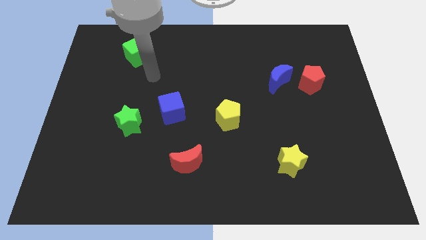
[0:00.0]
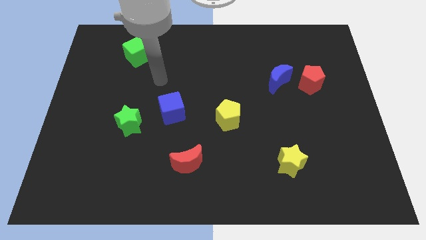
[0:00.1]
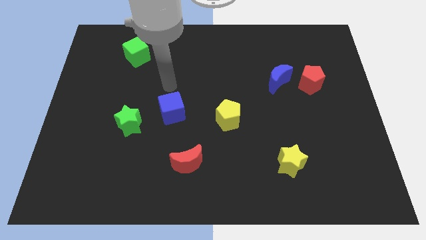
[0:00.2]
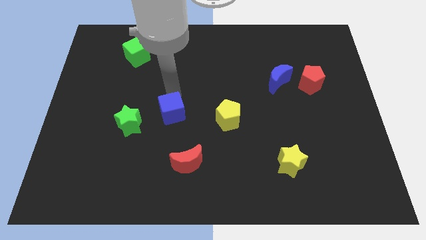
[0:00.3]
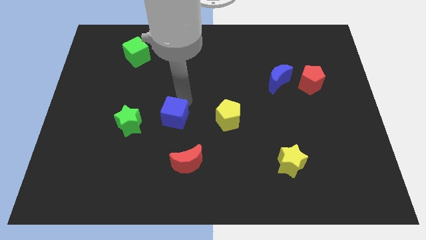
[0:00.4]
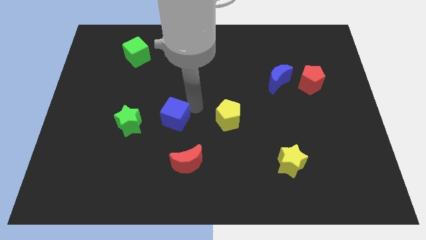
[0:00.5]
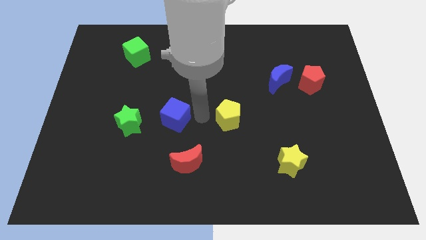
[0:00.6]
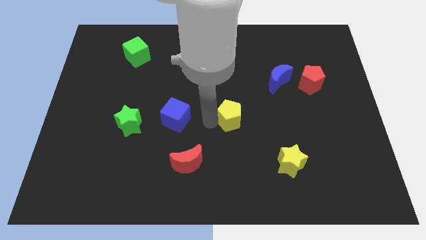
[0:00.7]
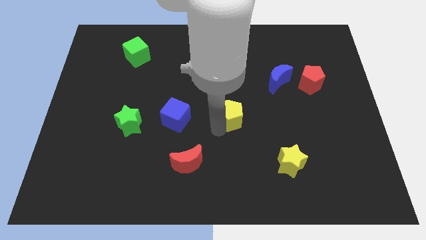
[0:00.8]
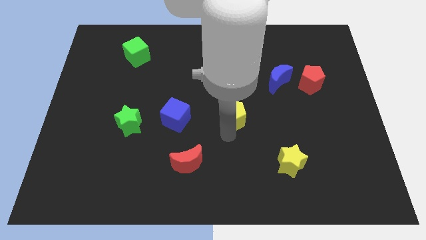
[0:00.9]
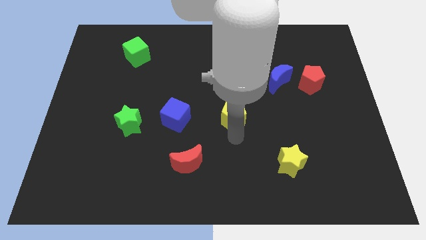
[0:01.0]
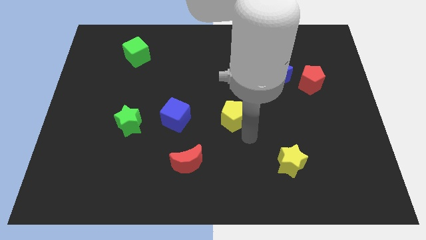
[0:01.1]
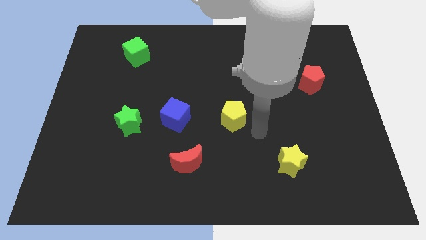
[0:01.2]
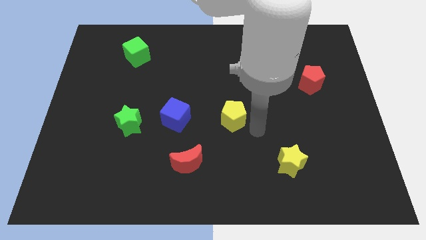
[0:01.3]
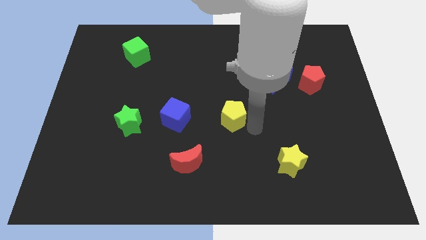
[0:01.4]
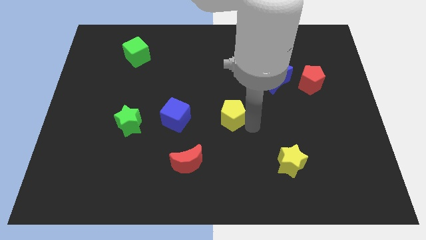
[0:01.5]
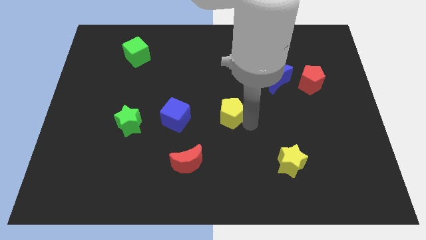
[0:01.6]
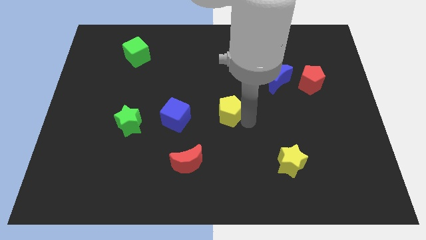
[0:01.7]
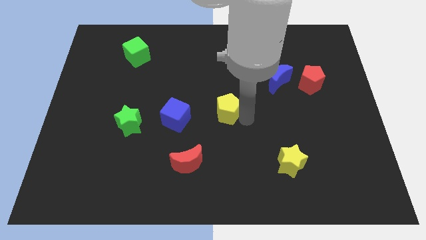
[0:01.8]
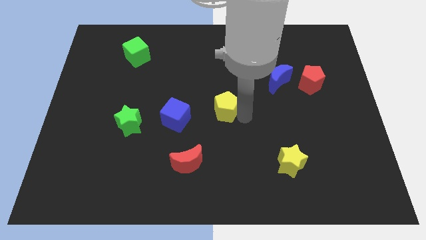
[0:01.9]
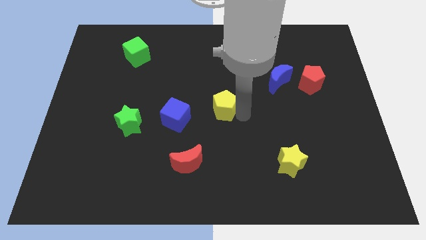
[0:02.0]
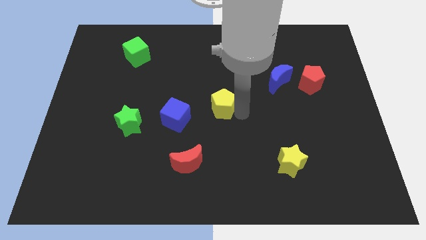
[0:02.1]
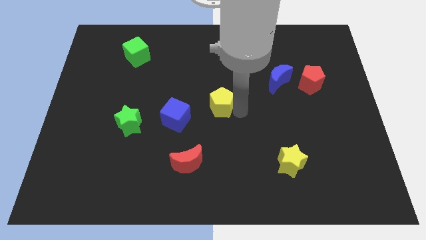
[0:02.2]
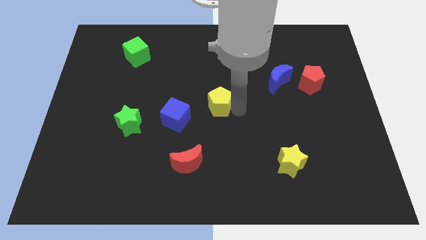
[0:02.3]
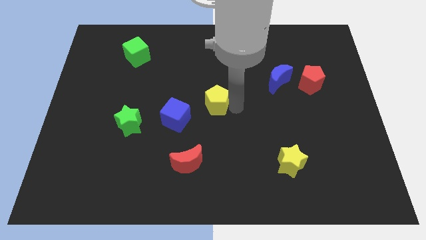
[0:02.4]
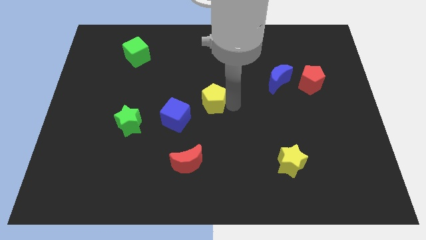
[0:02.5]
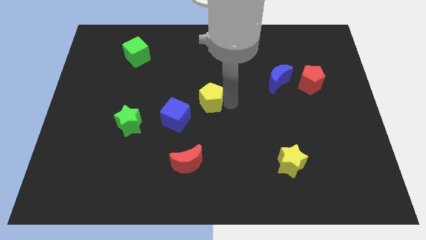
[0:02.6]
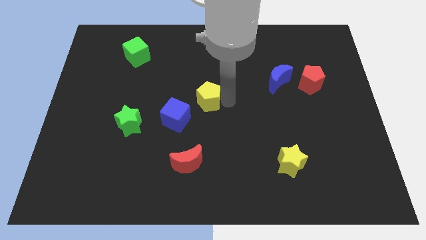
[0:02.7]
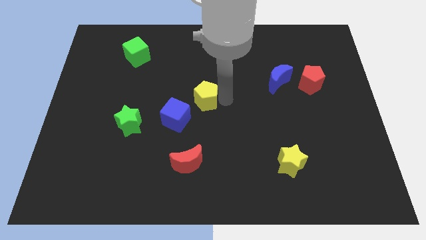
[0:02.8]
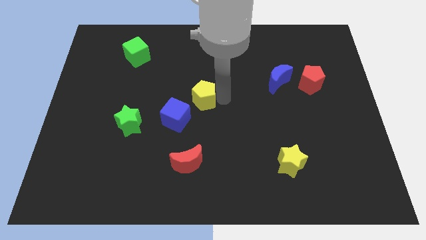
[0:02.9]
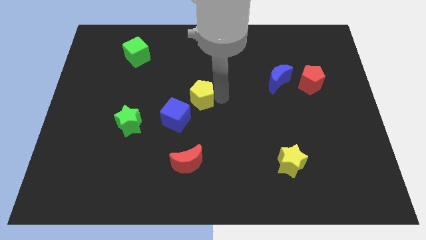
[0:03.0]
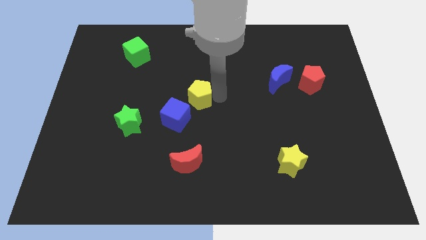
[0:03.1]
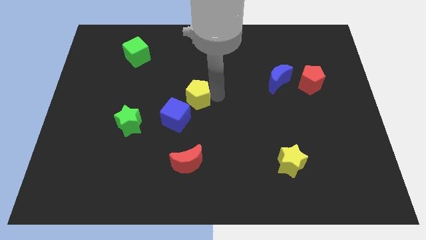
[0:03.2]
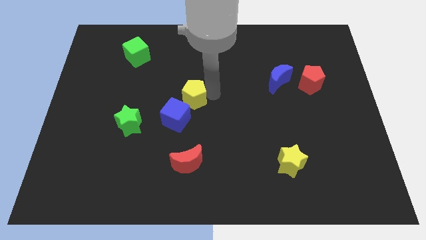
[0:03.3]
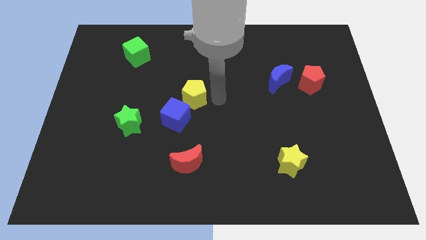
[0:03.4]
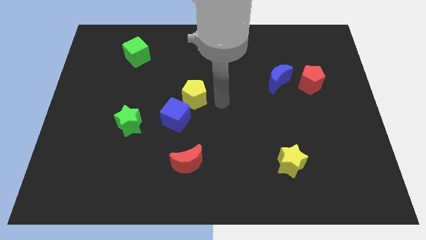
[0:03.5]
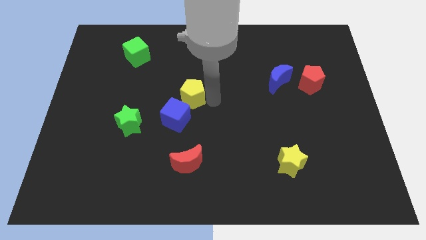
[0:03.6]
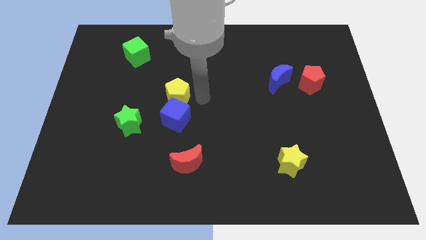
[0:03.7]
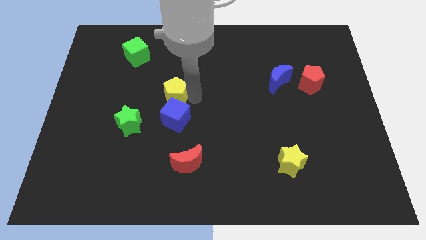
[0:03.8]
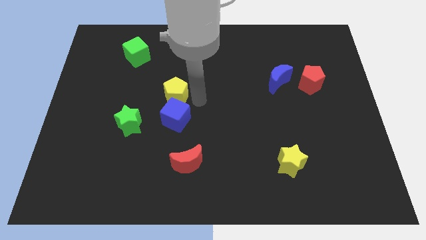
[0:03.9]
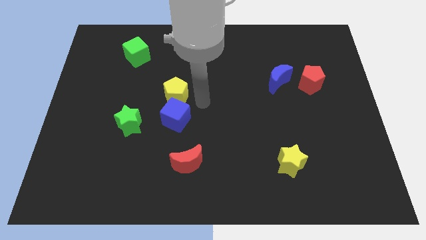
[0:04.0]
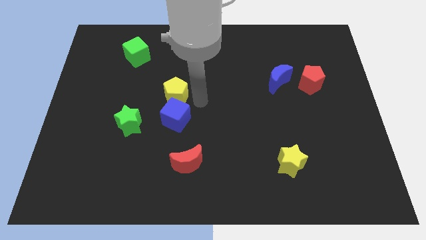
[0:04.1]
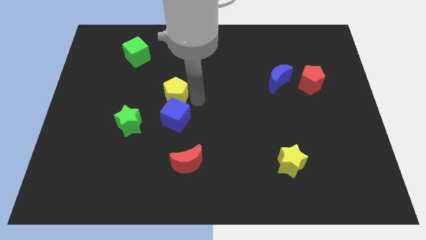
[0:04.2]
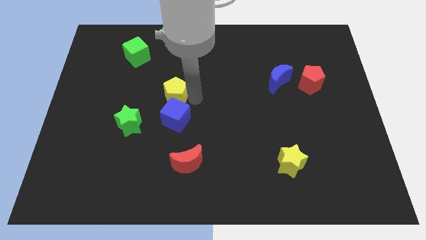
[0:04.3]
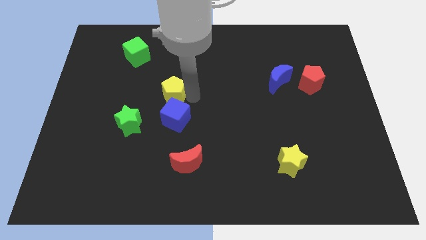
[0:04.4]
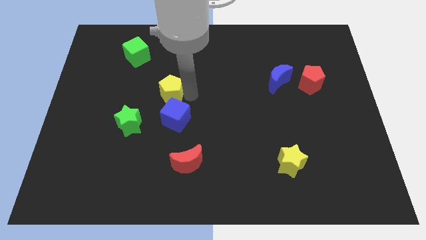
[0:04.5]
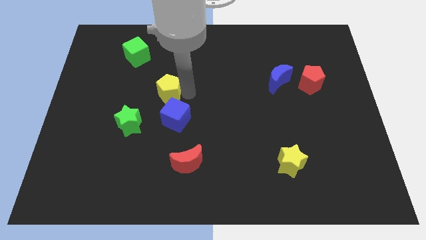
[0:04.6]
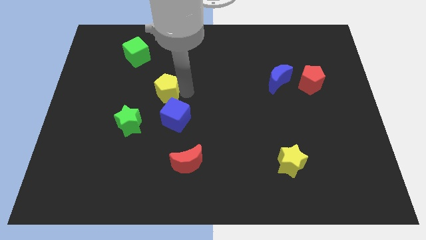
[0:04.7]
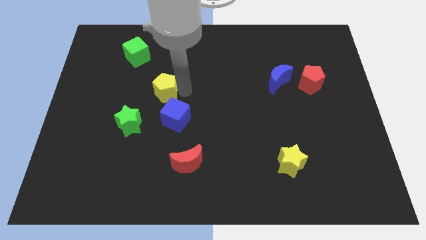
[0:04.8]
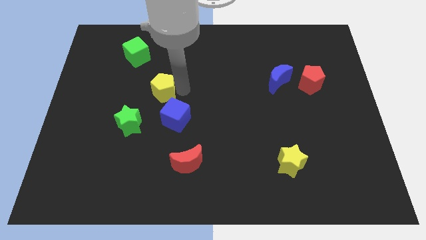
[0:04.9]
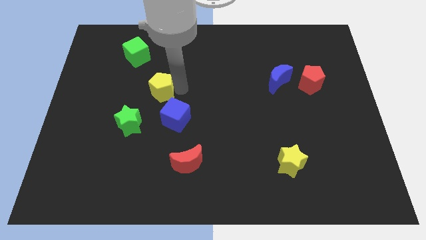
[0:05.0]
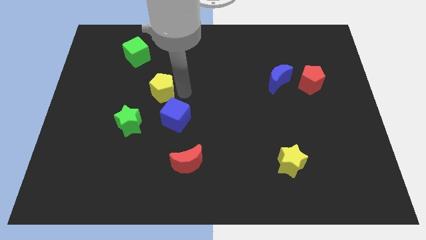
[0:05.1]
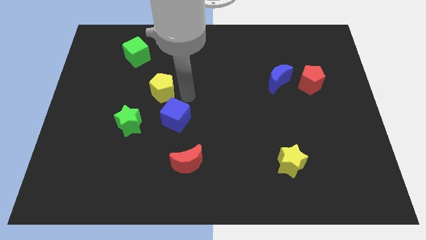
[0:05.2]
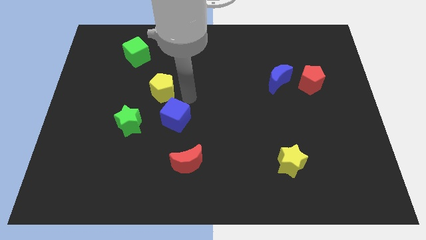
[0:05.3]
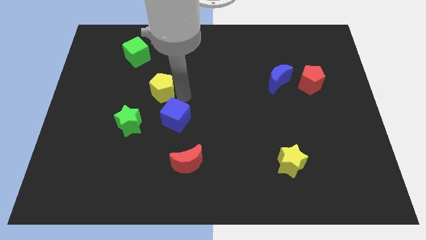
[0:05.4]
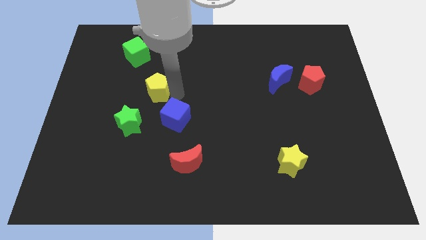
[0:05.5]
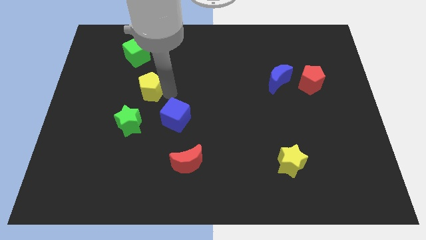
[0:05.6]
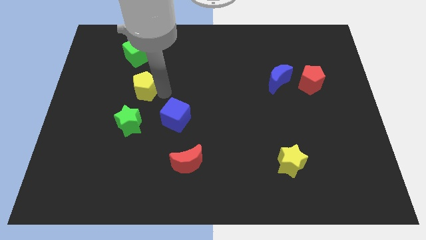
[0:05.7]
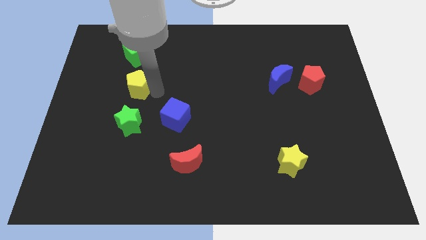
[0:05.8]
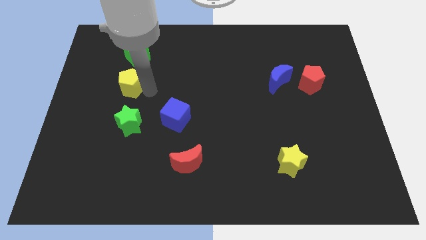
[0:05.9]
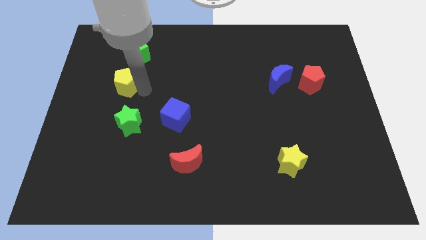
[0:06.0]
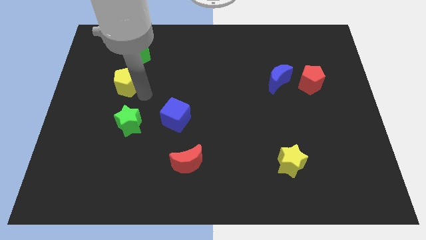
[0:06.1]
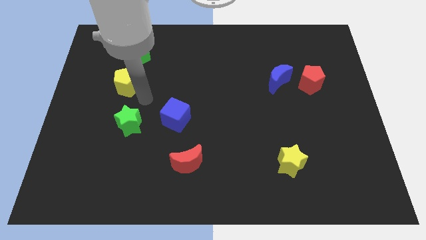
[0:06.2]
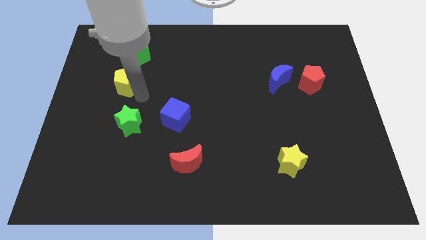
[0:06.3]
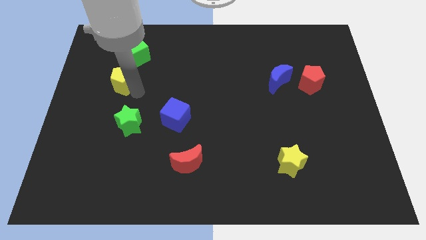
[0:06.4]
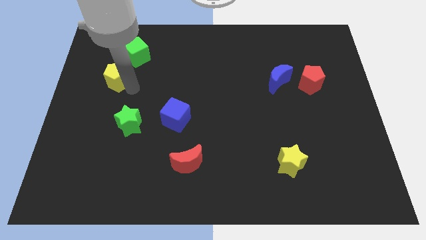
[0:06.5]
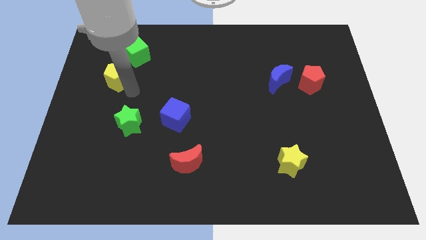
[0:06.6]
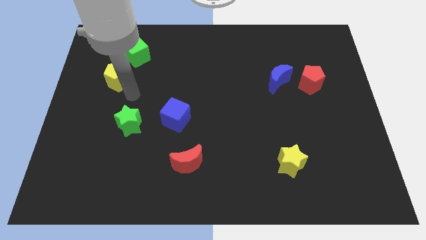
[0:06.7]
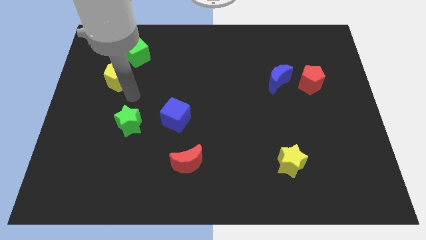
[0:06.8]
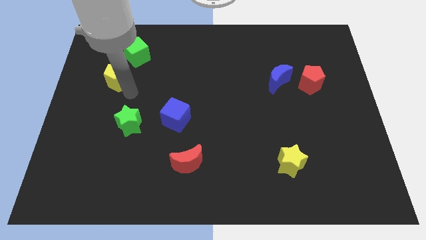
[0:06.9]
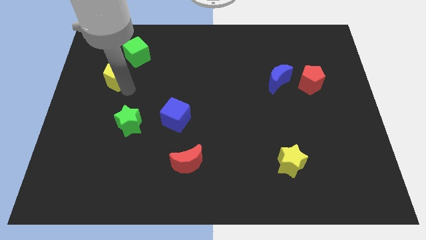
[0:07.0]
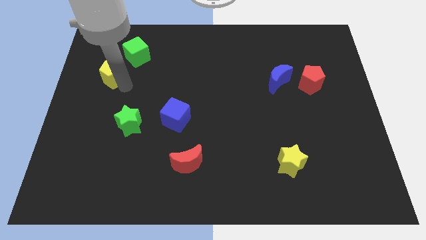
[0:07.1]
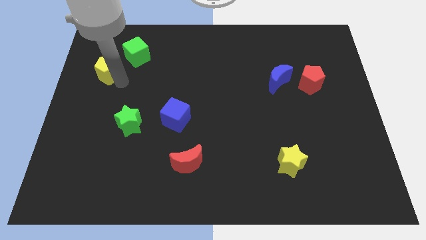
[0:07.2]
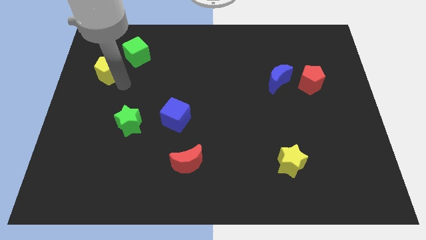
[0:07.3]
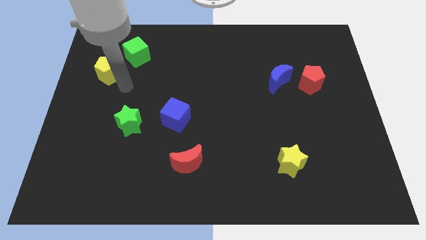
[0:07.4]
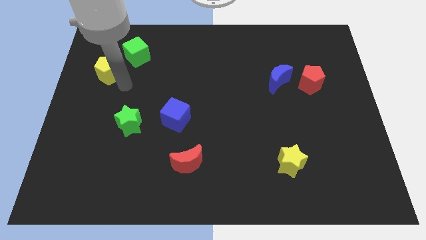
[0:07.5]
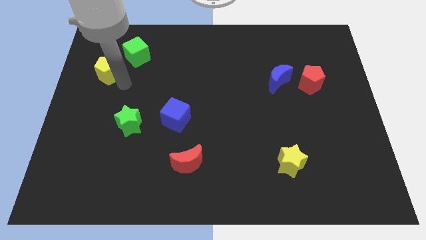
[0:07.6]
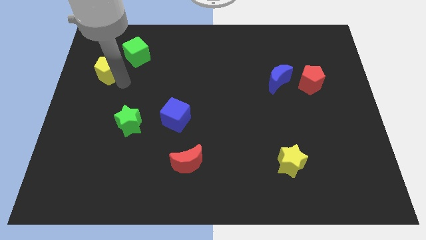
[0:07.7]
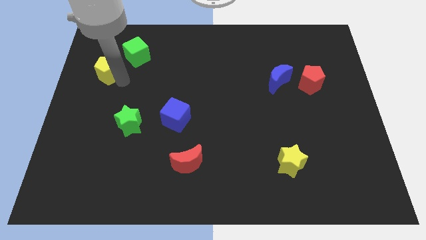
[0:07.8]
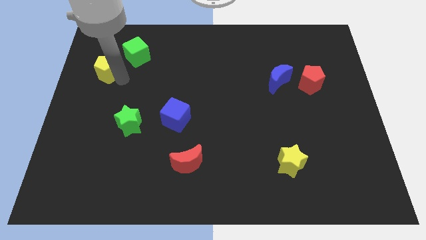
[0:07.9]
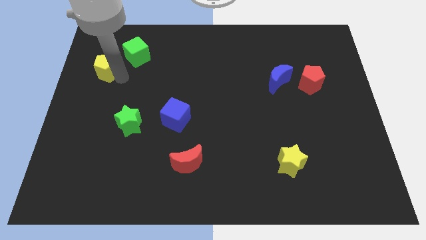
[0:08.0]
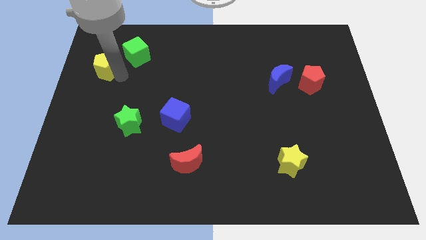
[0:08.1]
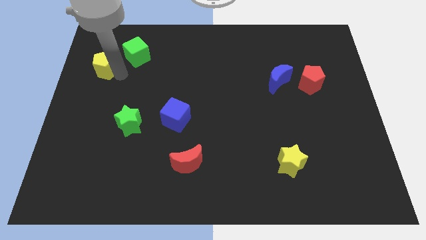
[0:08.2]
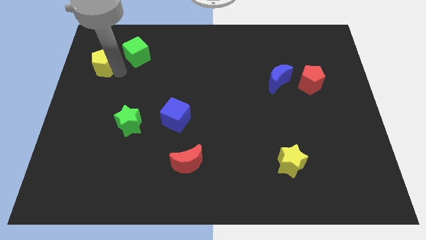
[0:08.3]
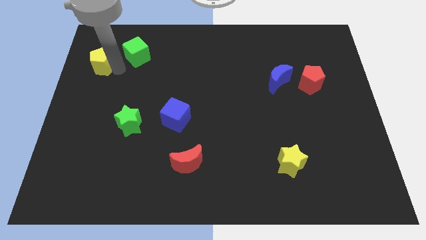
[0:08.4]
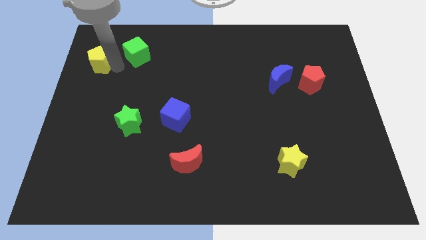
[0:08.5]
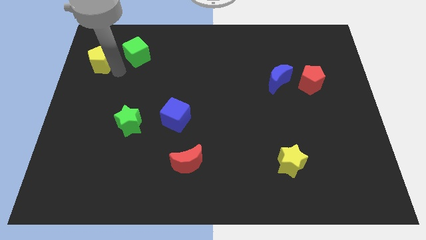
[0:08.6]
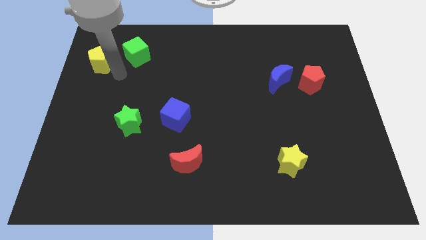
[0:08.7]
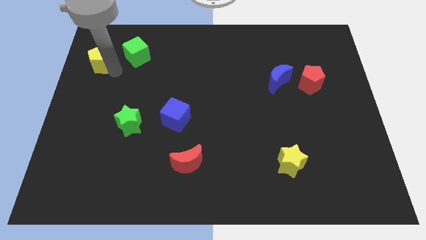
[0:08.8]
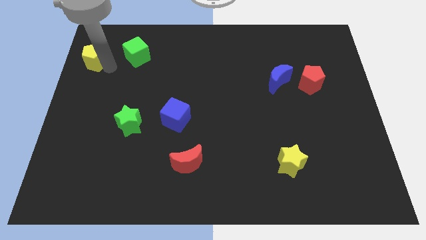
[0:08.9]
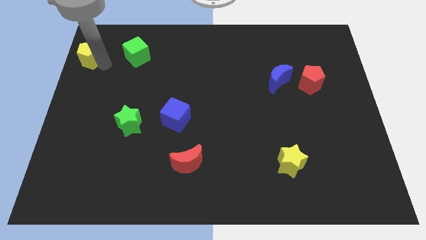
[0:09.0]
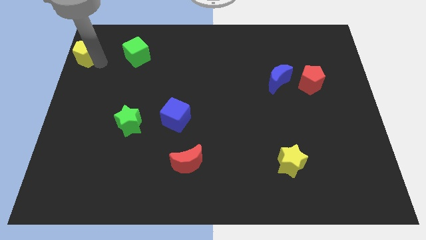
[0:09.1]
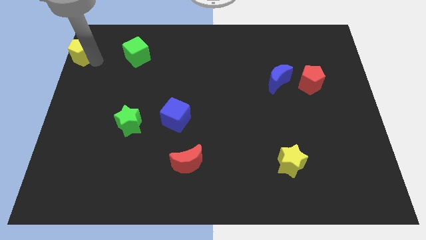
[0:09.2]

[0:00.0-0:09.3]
slide the yellow pentagon to the top left corner
